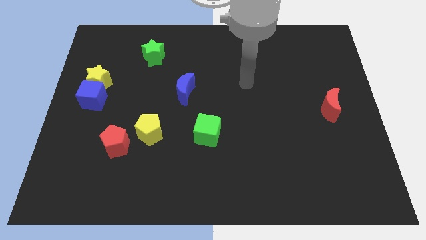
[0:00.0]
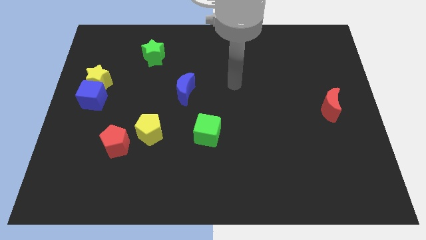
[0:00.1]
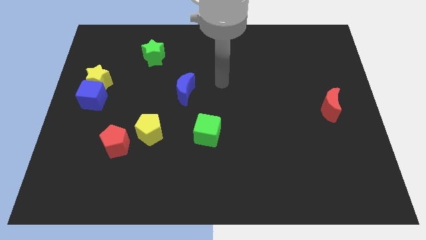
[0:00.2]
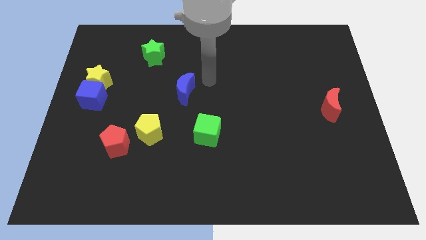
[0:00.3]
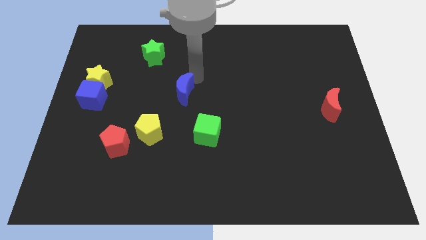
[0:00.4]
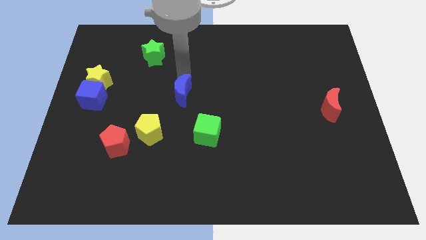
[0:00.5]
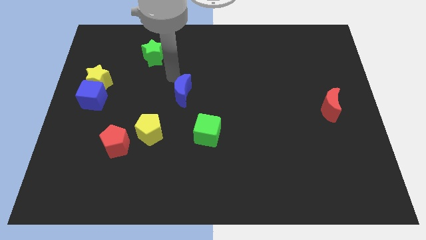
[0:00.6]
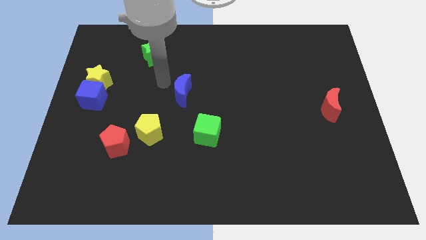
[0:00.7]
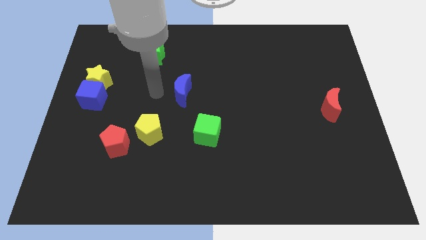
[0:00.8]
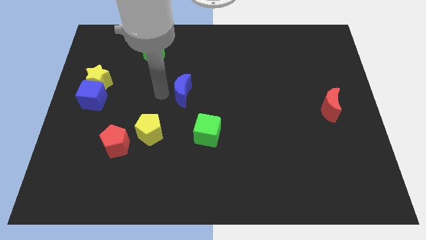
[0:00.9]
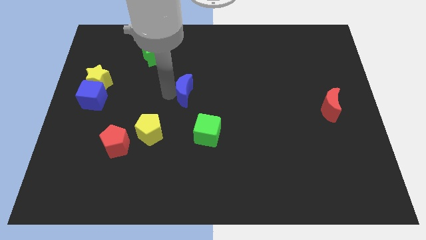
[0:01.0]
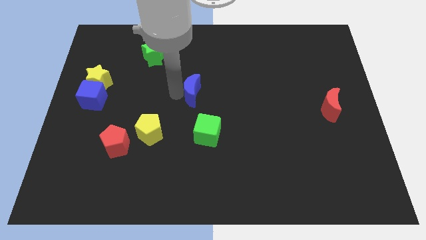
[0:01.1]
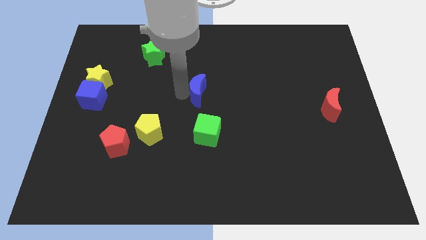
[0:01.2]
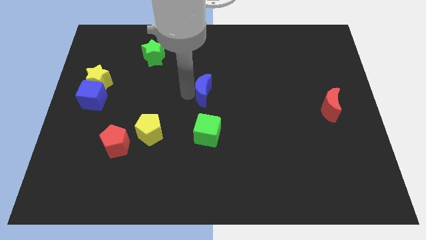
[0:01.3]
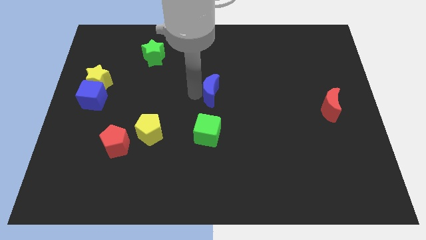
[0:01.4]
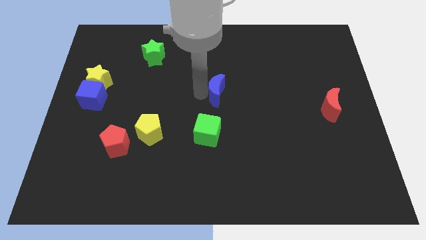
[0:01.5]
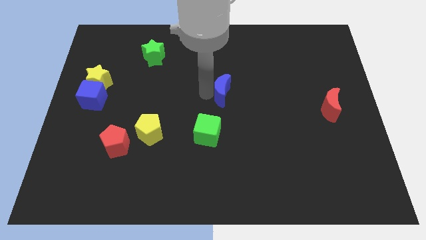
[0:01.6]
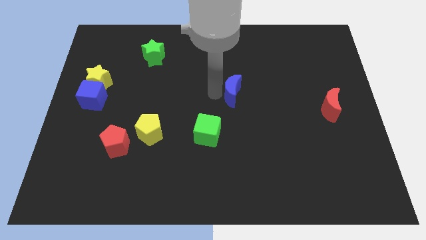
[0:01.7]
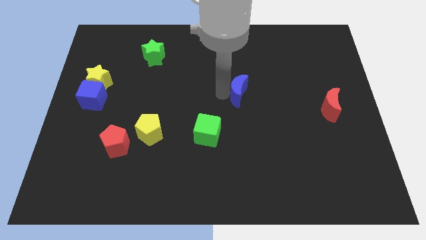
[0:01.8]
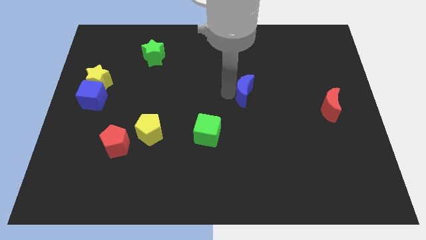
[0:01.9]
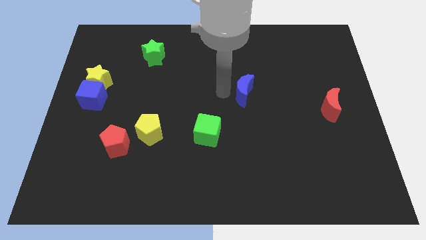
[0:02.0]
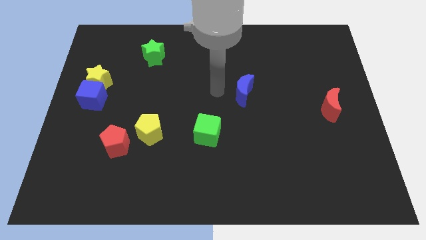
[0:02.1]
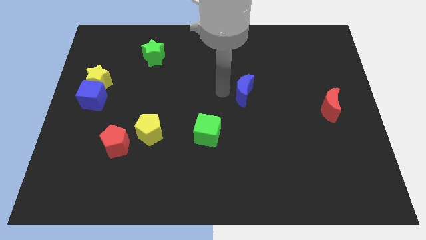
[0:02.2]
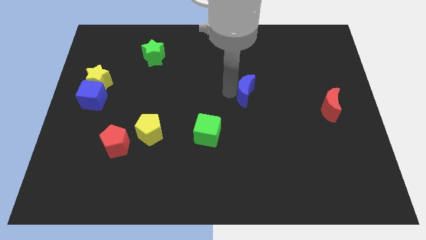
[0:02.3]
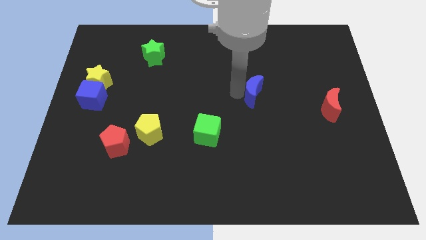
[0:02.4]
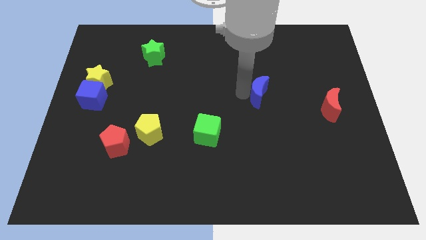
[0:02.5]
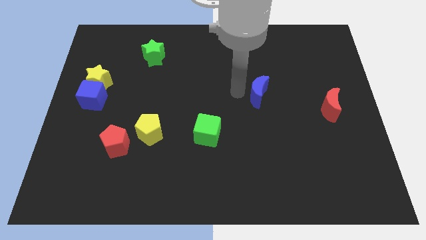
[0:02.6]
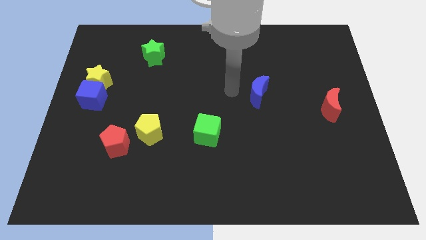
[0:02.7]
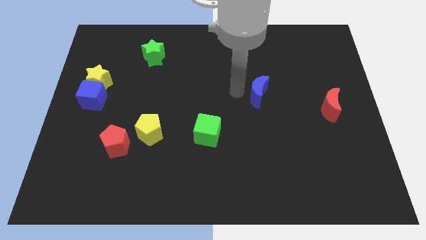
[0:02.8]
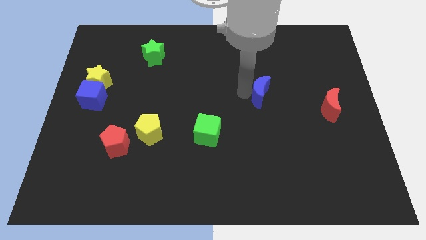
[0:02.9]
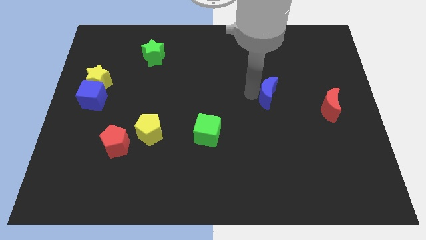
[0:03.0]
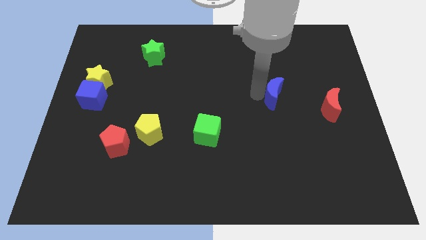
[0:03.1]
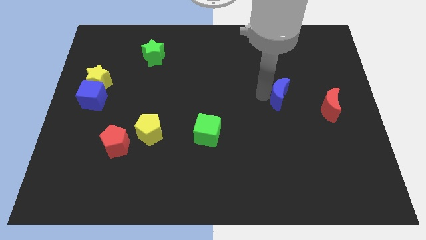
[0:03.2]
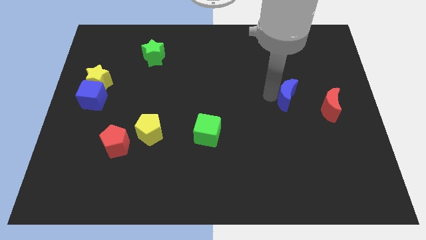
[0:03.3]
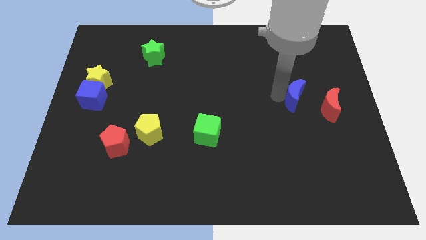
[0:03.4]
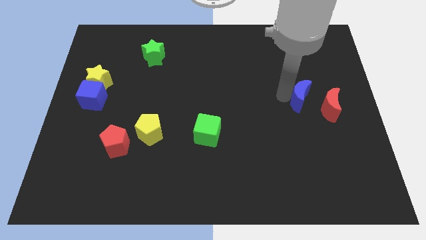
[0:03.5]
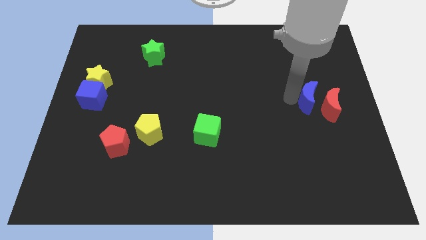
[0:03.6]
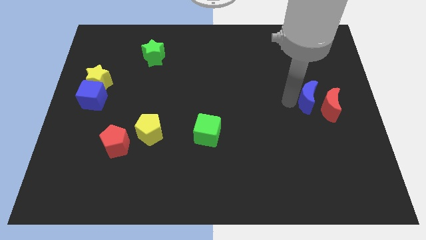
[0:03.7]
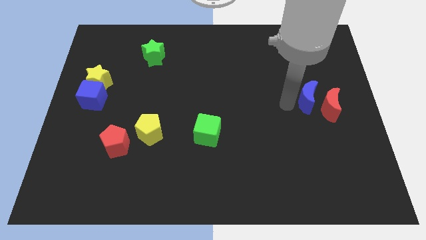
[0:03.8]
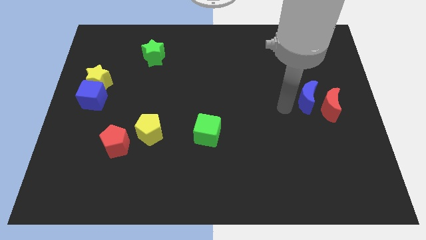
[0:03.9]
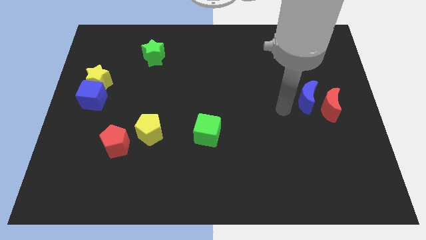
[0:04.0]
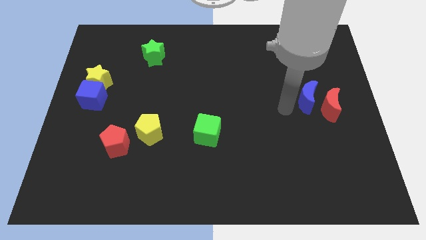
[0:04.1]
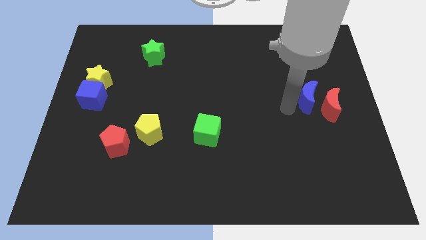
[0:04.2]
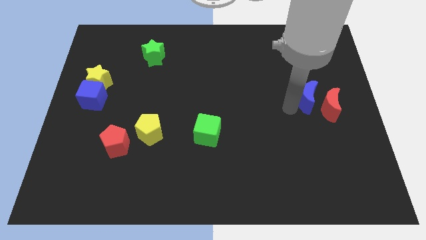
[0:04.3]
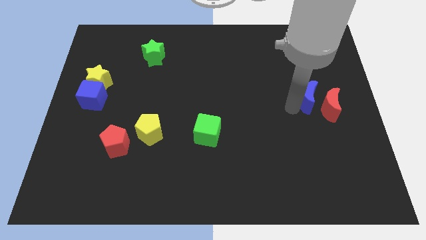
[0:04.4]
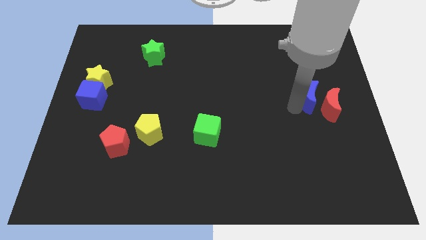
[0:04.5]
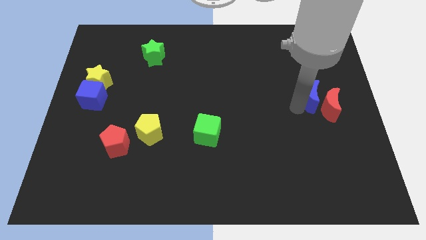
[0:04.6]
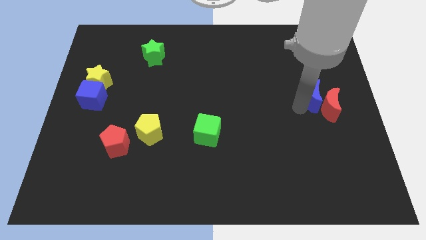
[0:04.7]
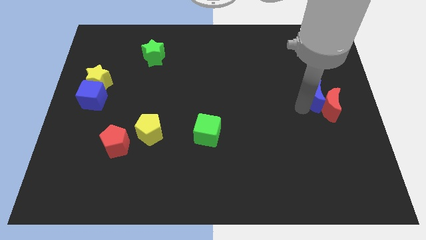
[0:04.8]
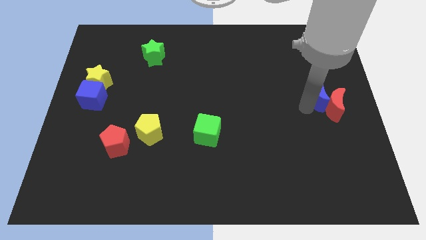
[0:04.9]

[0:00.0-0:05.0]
put the blue moon to the right side of the board

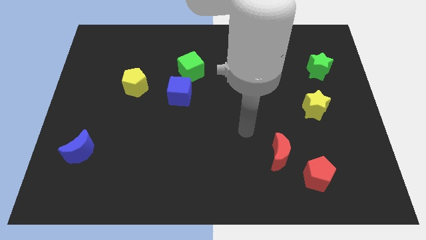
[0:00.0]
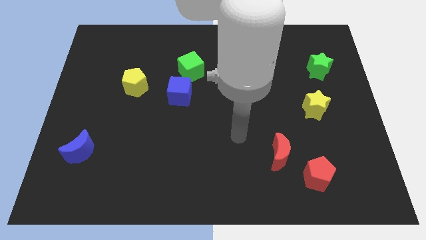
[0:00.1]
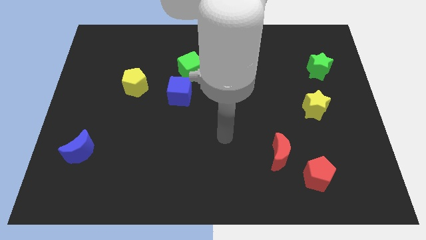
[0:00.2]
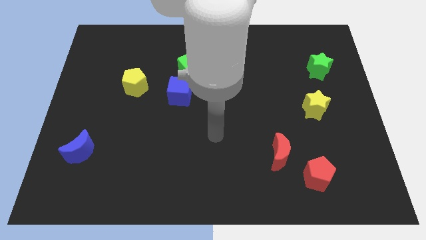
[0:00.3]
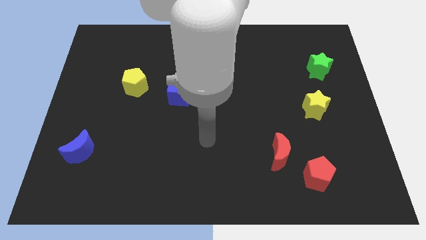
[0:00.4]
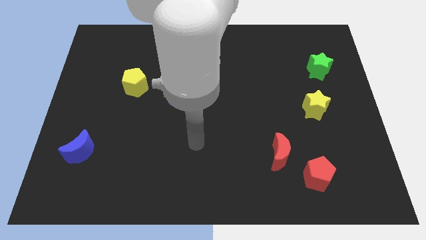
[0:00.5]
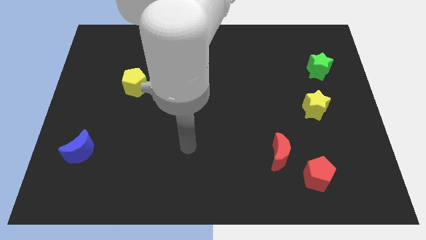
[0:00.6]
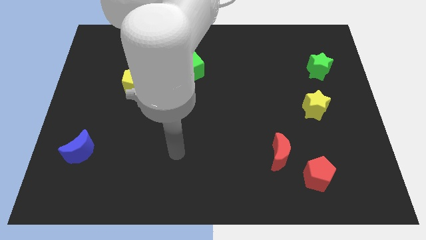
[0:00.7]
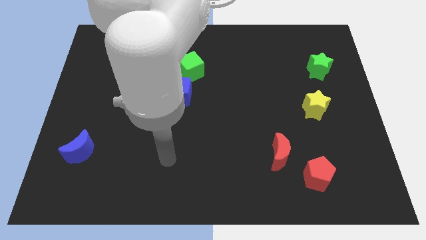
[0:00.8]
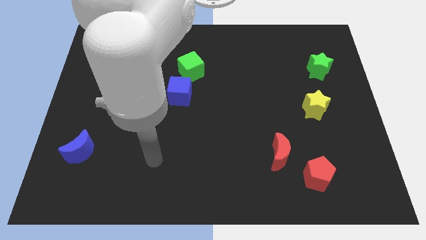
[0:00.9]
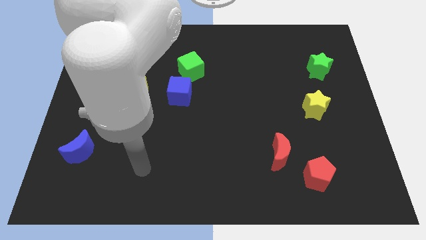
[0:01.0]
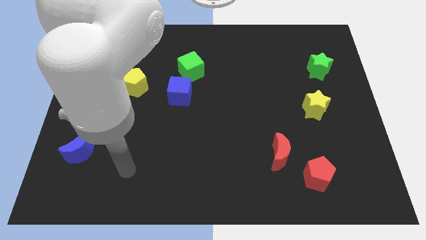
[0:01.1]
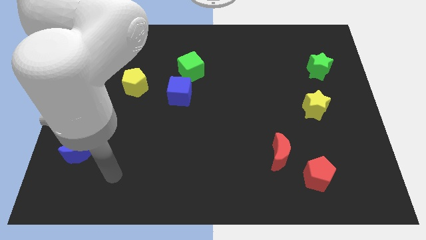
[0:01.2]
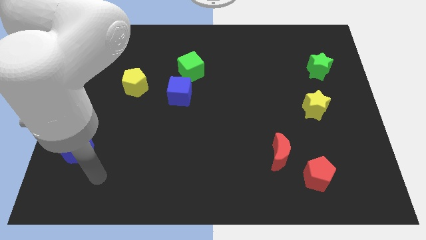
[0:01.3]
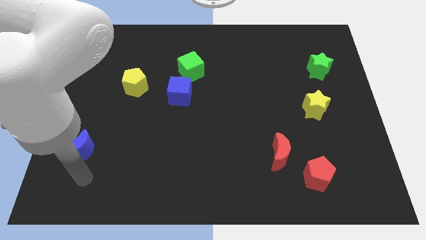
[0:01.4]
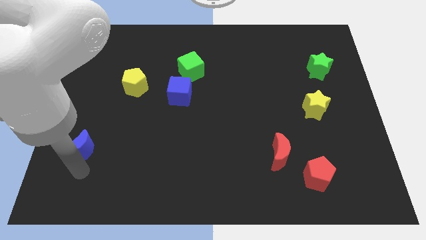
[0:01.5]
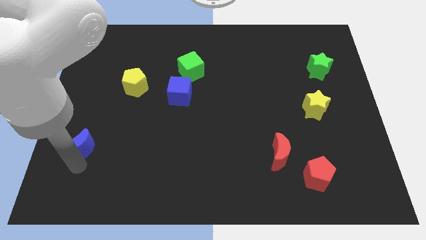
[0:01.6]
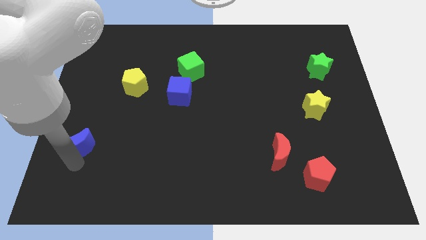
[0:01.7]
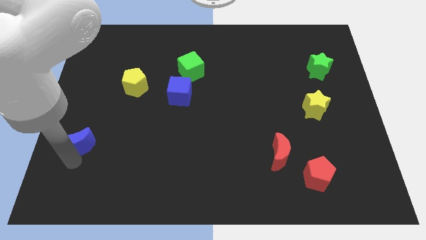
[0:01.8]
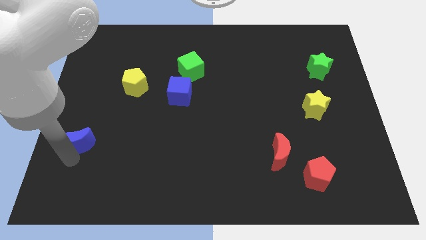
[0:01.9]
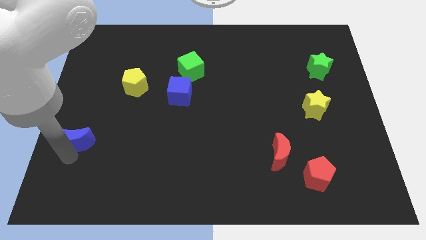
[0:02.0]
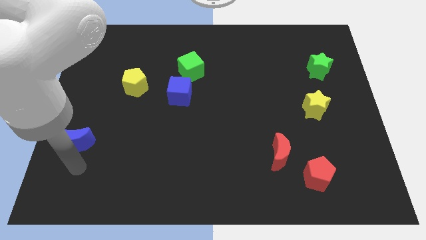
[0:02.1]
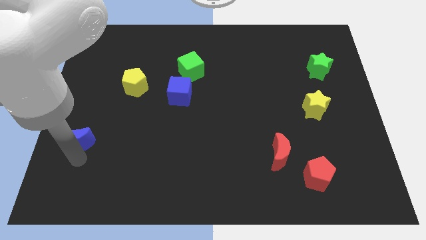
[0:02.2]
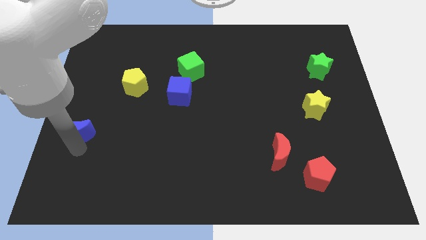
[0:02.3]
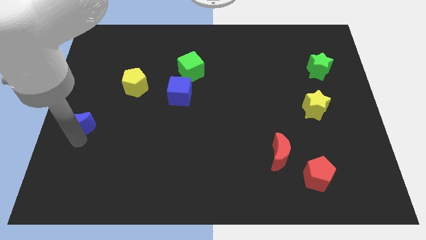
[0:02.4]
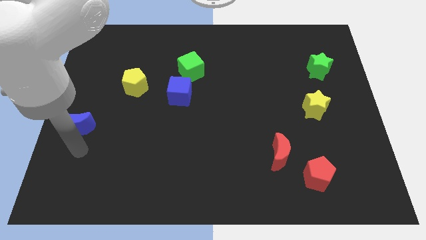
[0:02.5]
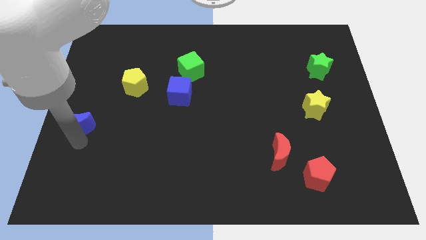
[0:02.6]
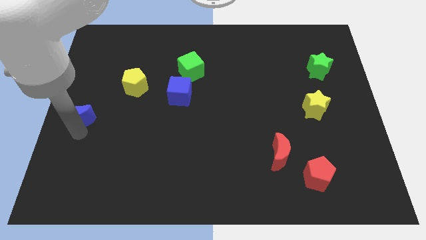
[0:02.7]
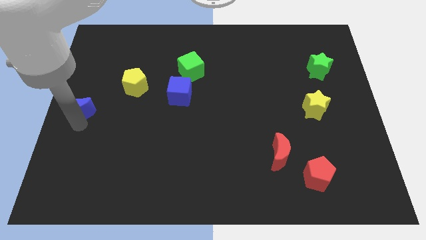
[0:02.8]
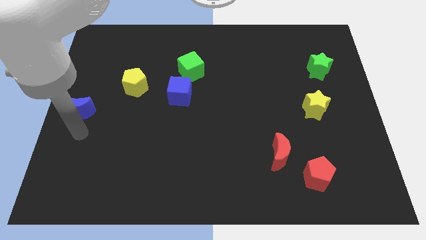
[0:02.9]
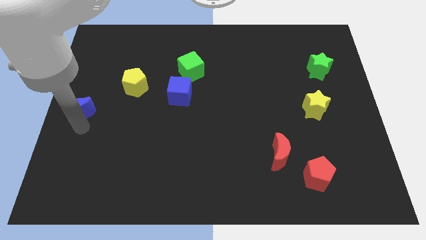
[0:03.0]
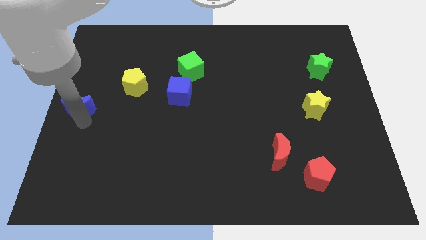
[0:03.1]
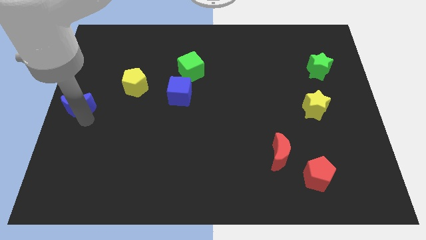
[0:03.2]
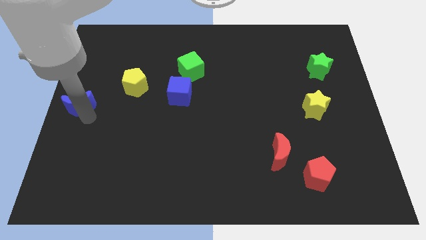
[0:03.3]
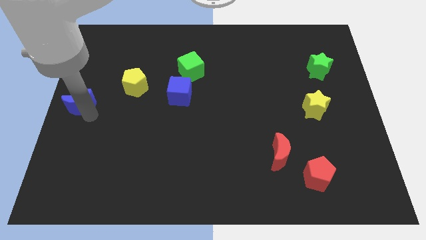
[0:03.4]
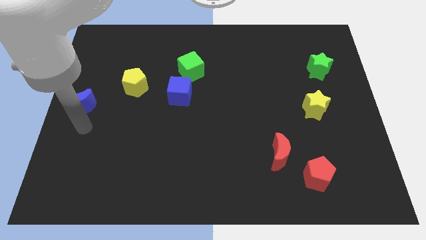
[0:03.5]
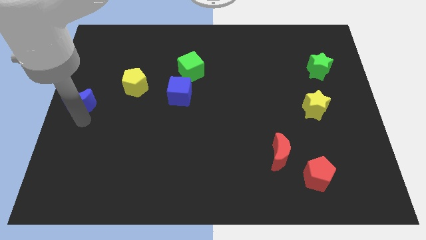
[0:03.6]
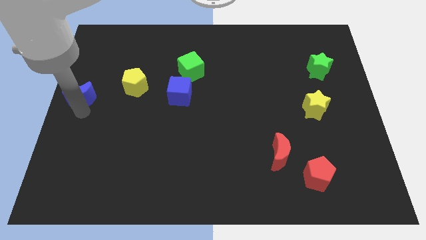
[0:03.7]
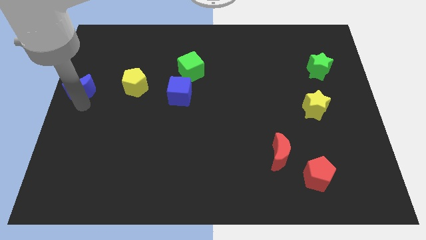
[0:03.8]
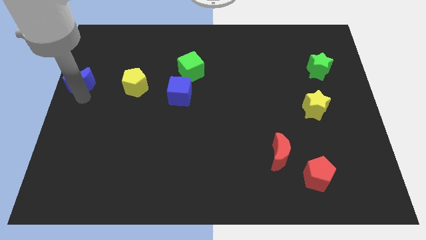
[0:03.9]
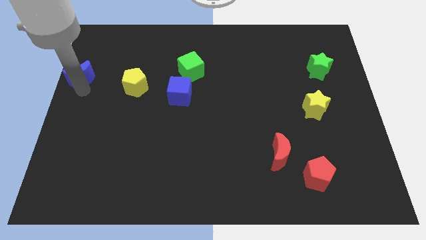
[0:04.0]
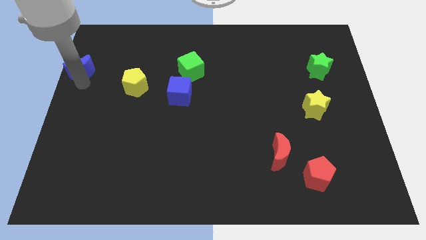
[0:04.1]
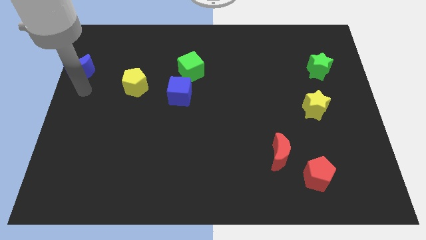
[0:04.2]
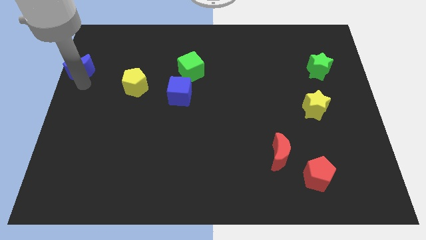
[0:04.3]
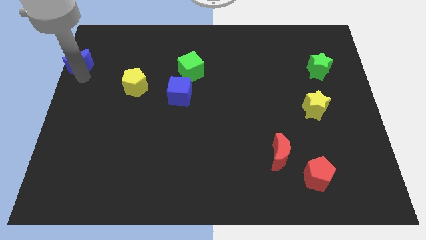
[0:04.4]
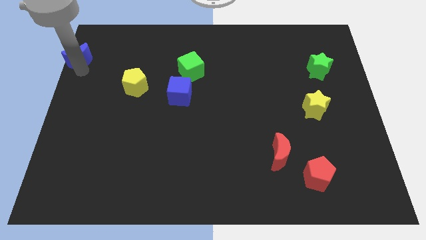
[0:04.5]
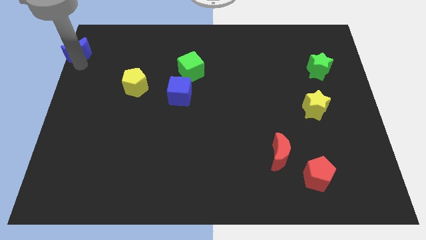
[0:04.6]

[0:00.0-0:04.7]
slide the blue moon to the top left of the board
